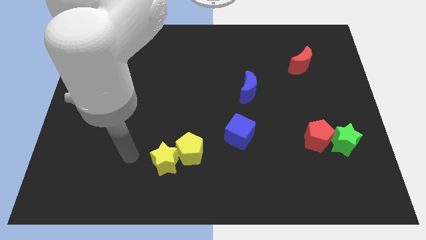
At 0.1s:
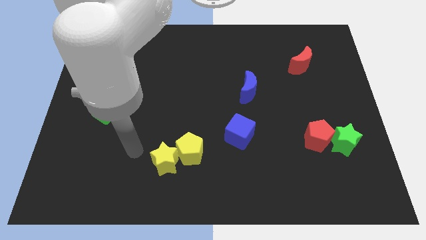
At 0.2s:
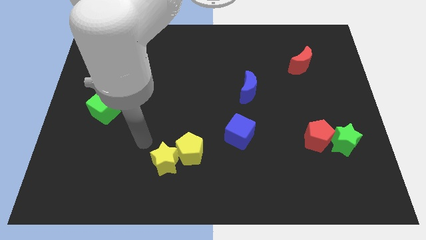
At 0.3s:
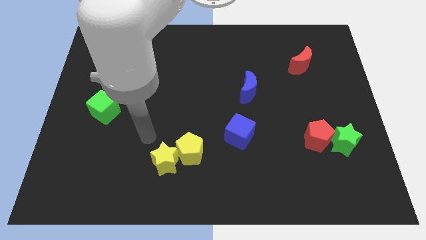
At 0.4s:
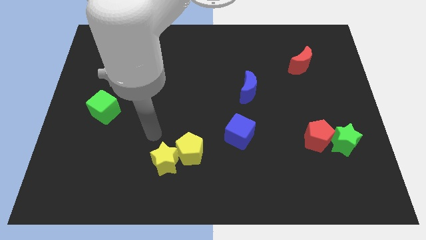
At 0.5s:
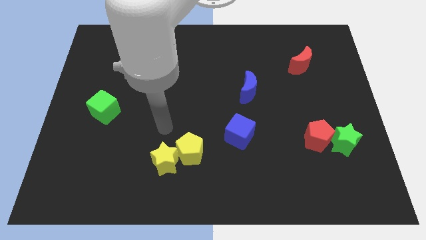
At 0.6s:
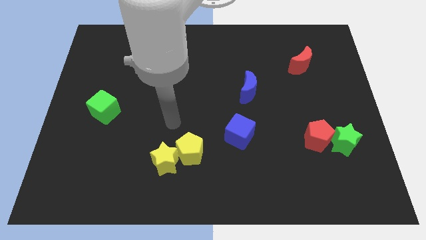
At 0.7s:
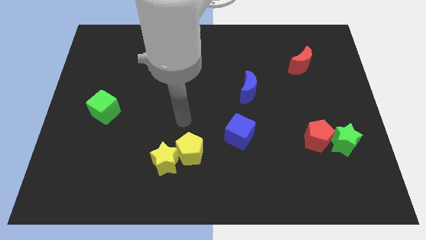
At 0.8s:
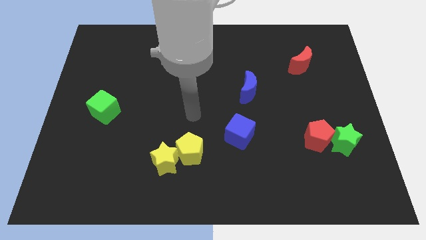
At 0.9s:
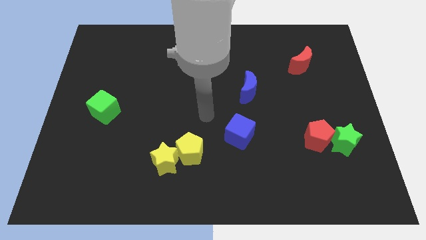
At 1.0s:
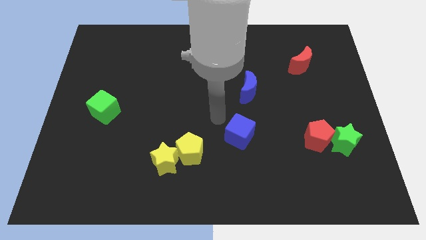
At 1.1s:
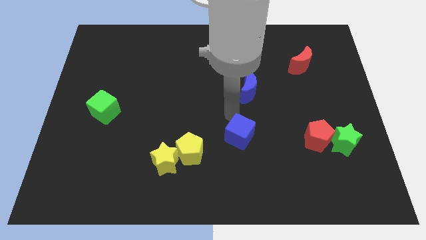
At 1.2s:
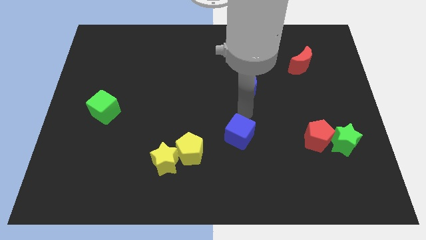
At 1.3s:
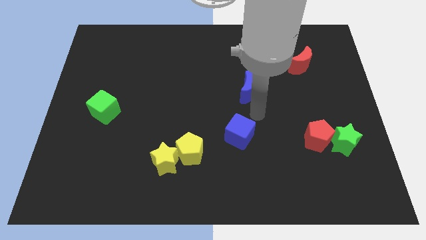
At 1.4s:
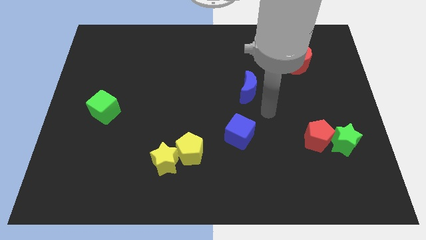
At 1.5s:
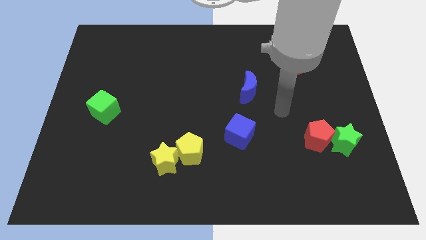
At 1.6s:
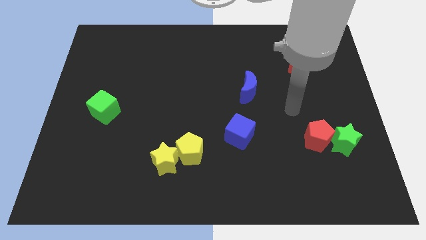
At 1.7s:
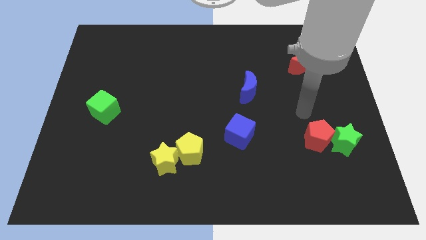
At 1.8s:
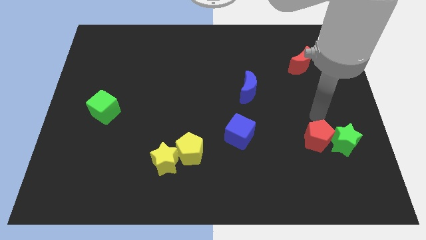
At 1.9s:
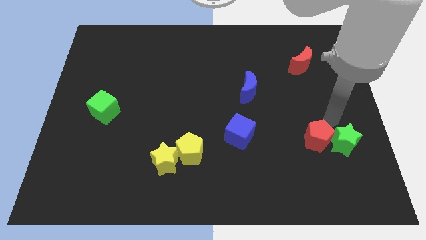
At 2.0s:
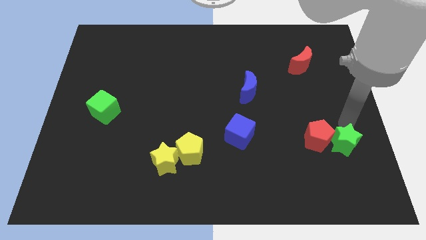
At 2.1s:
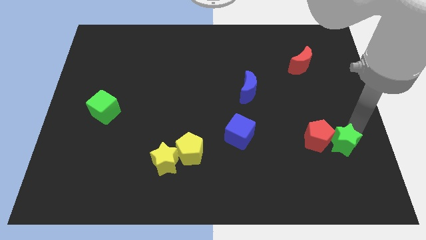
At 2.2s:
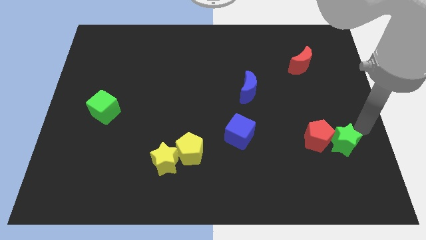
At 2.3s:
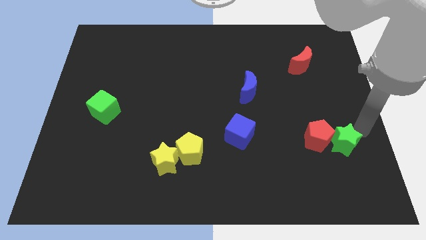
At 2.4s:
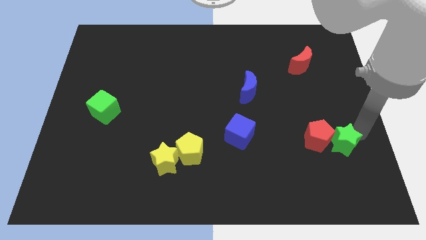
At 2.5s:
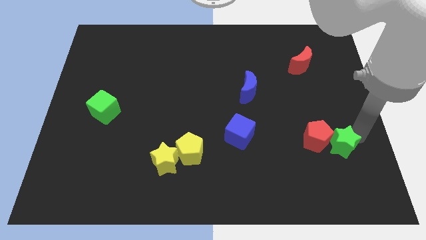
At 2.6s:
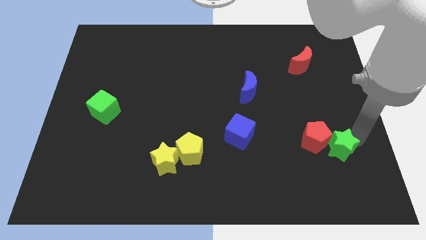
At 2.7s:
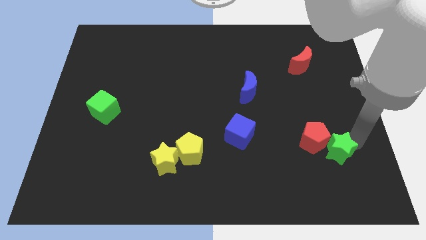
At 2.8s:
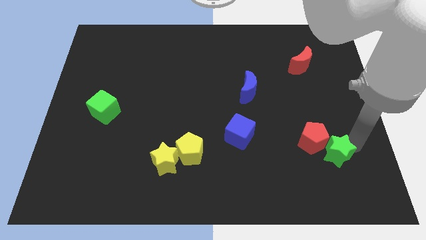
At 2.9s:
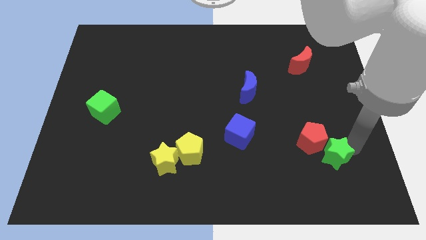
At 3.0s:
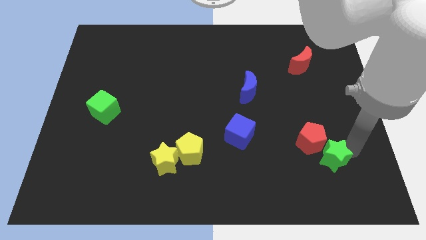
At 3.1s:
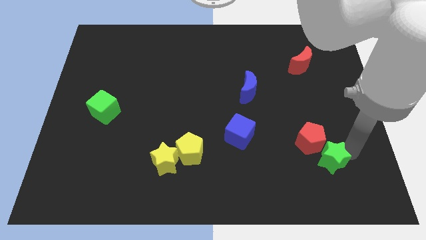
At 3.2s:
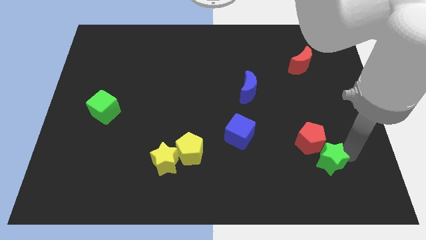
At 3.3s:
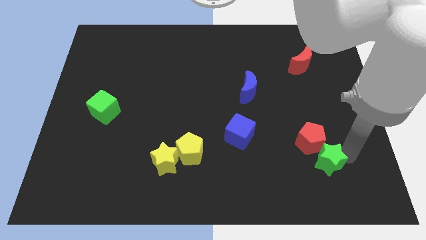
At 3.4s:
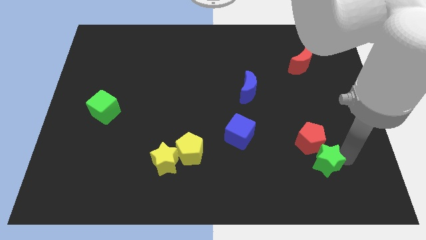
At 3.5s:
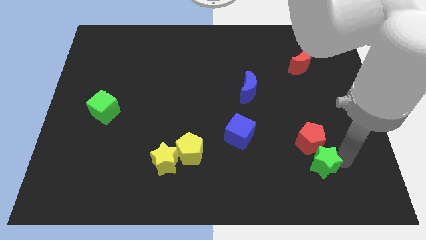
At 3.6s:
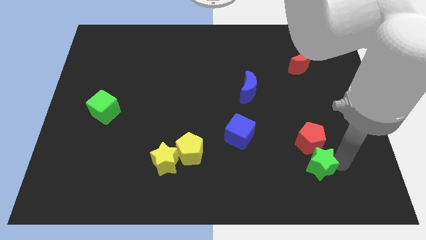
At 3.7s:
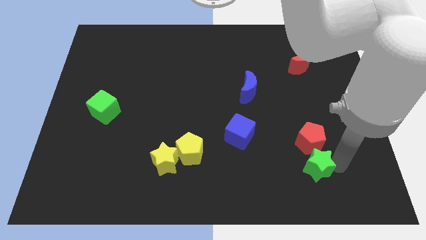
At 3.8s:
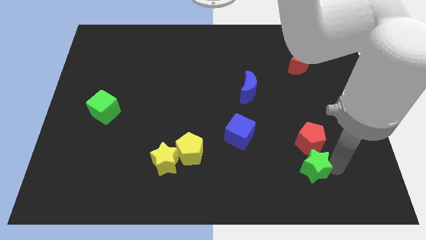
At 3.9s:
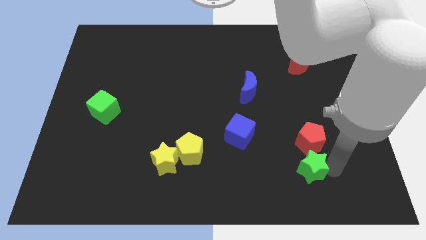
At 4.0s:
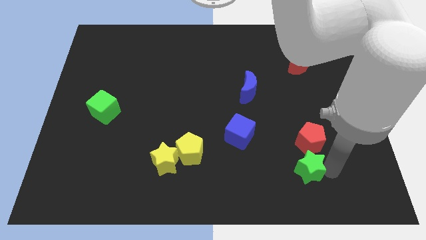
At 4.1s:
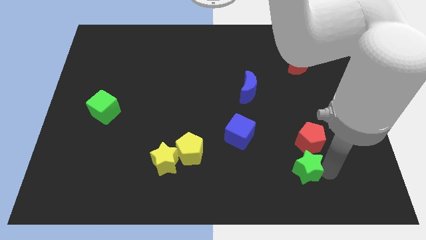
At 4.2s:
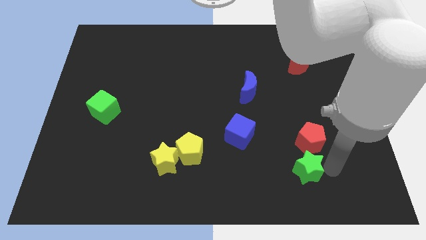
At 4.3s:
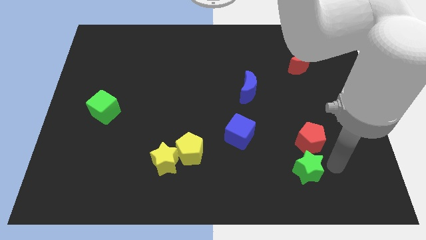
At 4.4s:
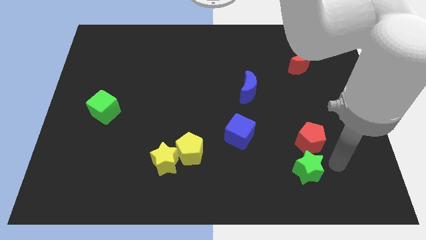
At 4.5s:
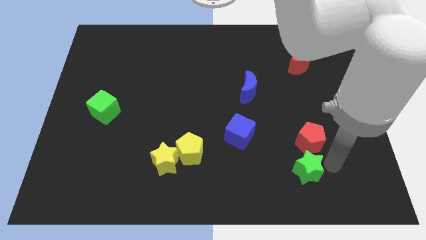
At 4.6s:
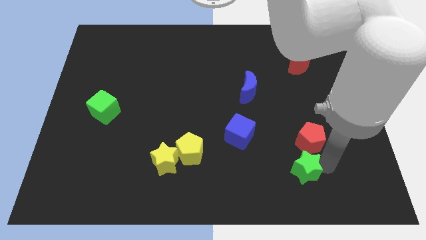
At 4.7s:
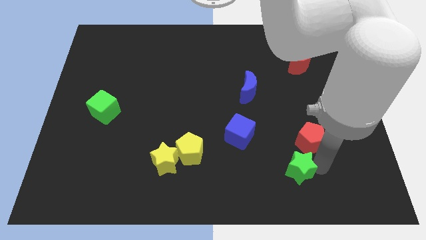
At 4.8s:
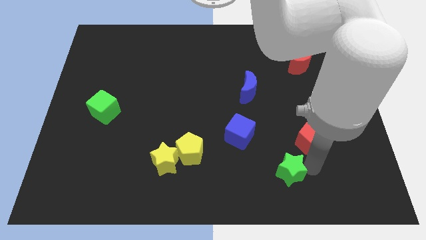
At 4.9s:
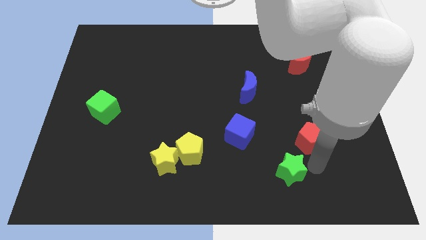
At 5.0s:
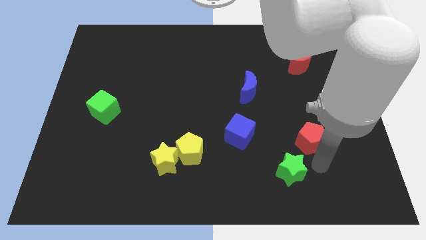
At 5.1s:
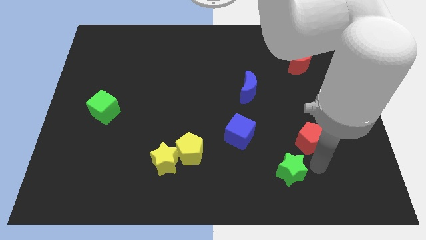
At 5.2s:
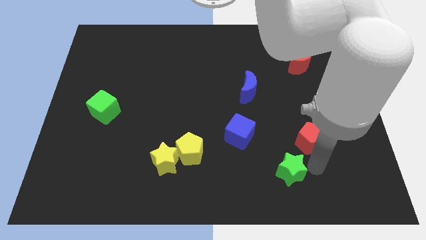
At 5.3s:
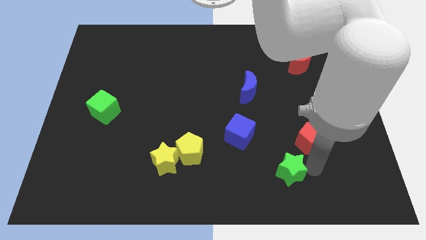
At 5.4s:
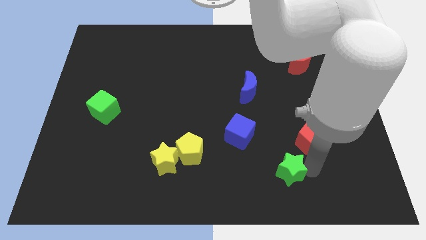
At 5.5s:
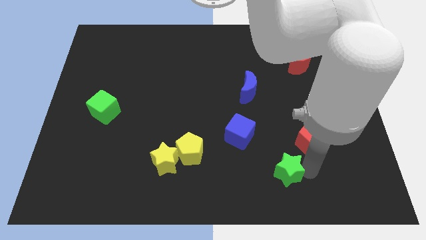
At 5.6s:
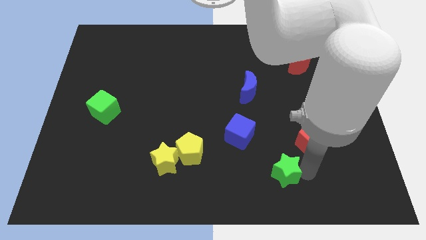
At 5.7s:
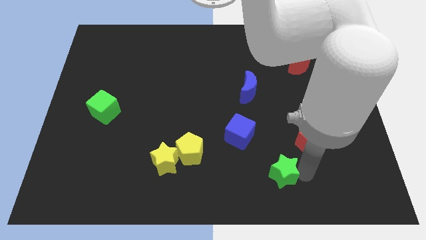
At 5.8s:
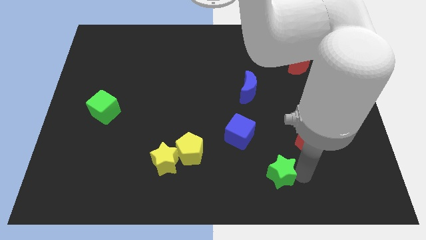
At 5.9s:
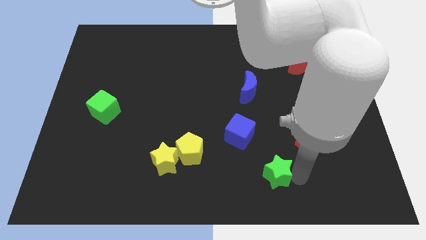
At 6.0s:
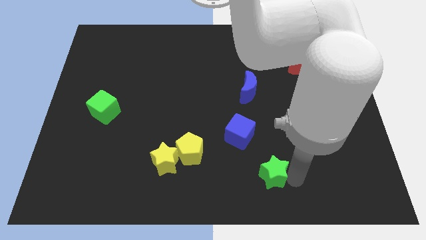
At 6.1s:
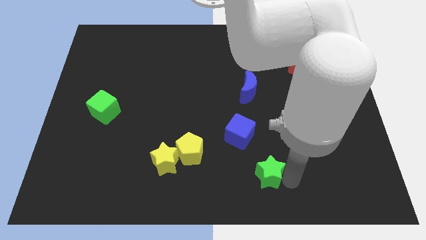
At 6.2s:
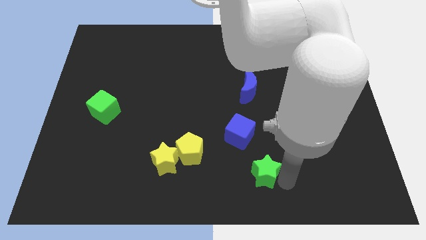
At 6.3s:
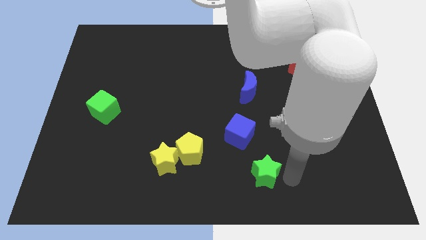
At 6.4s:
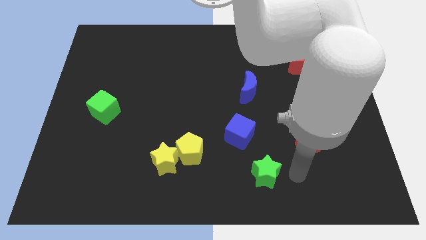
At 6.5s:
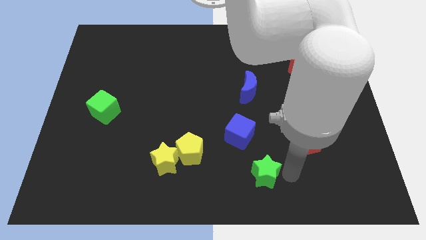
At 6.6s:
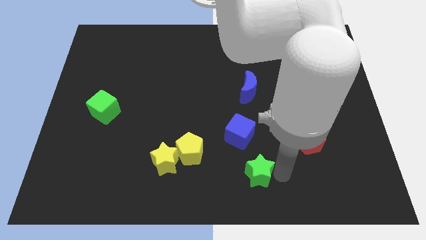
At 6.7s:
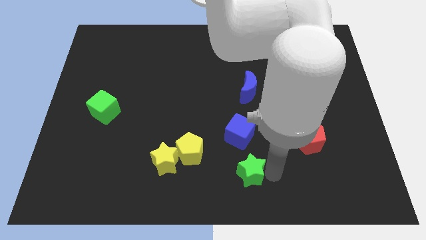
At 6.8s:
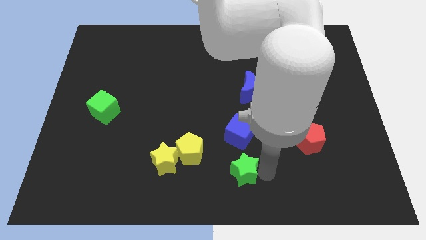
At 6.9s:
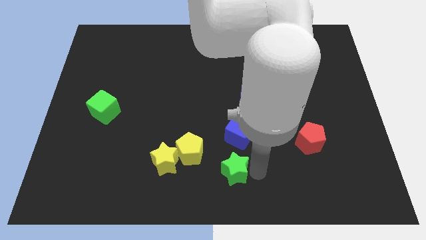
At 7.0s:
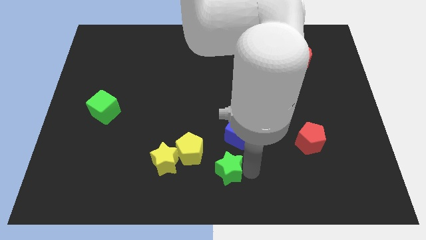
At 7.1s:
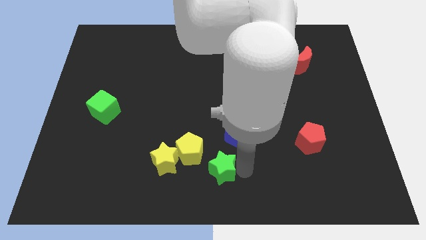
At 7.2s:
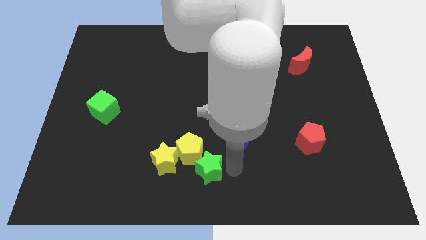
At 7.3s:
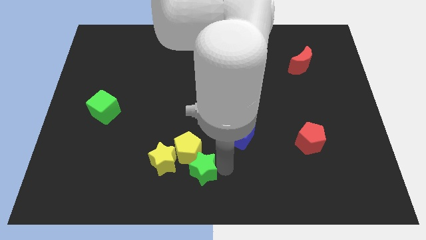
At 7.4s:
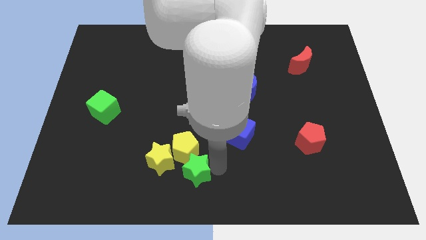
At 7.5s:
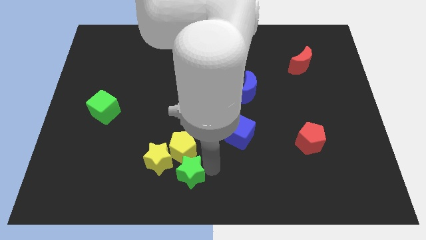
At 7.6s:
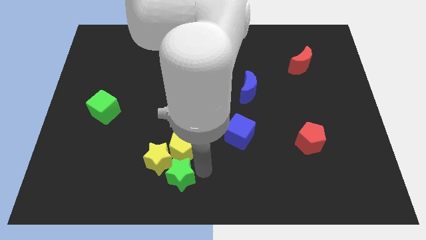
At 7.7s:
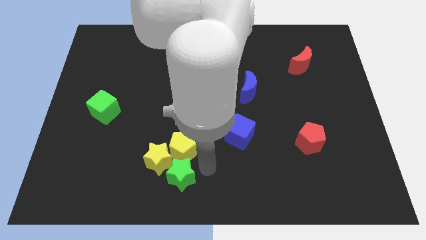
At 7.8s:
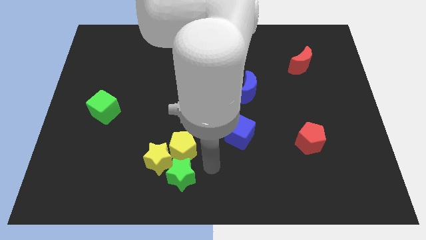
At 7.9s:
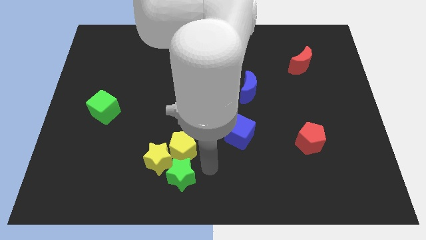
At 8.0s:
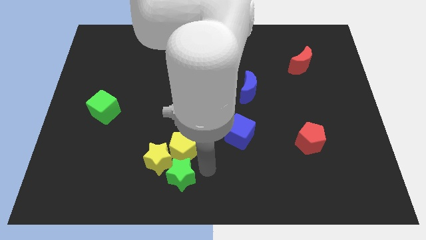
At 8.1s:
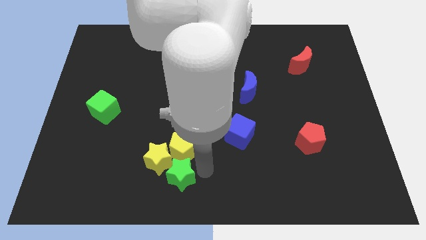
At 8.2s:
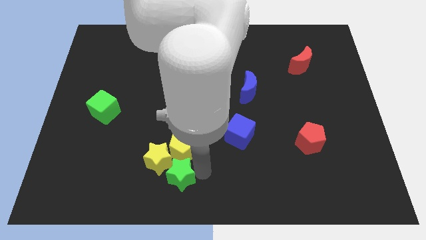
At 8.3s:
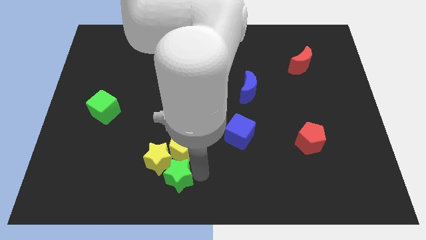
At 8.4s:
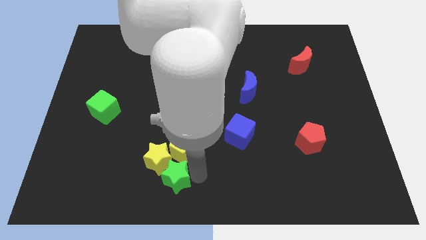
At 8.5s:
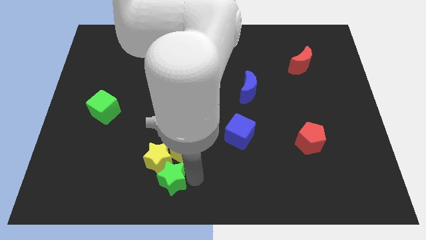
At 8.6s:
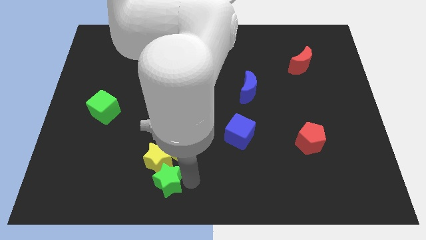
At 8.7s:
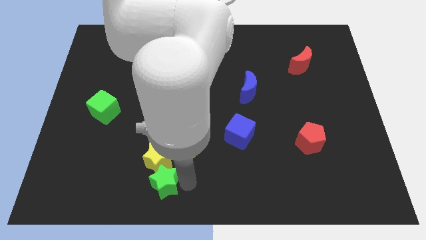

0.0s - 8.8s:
put the green star to the bottom left of the yellow star
